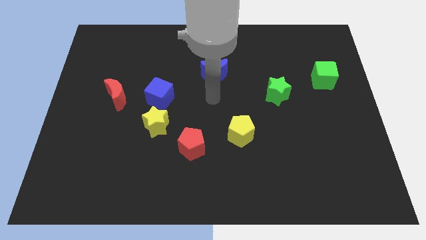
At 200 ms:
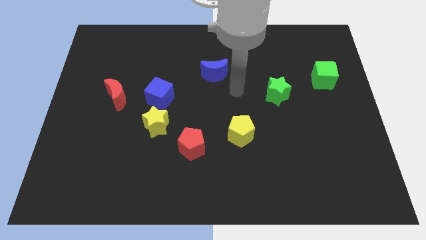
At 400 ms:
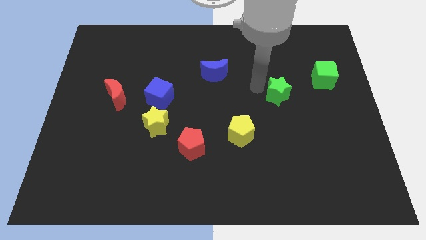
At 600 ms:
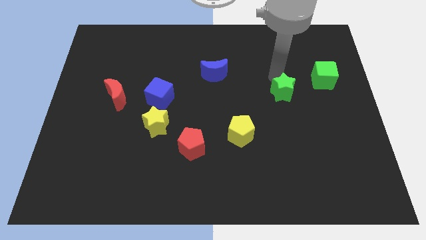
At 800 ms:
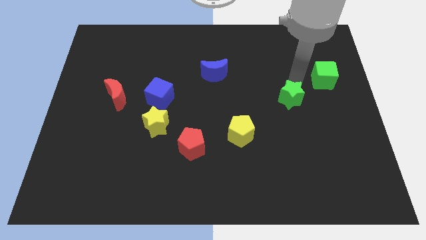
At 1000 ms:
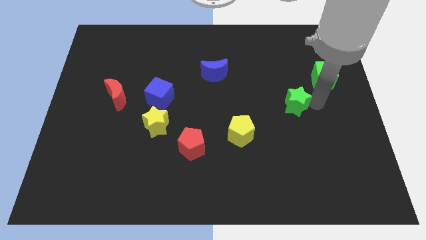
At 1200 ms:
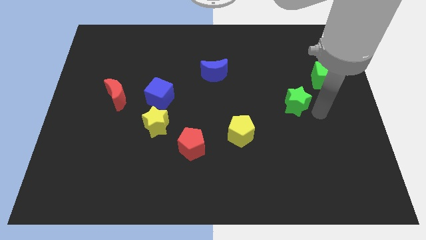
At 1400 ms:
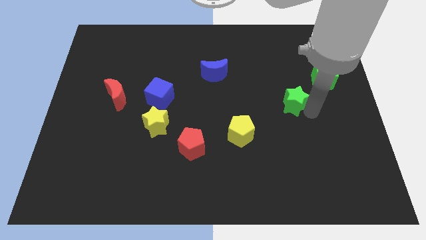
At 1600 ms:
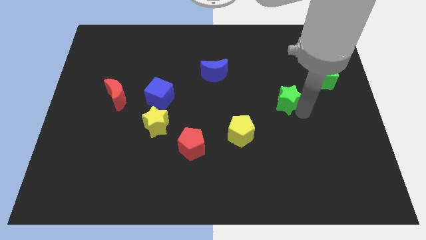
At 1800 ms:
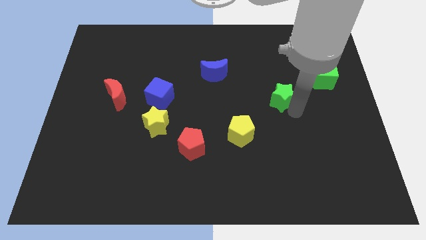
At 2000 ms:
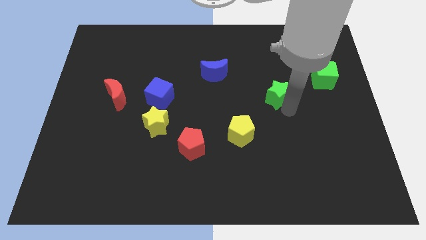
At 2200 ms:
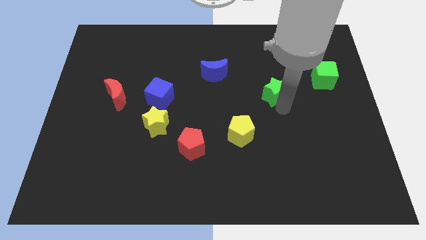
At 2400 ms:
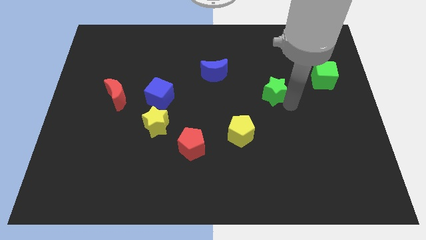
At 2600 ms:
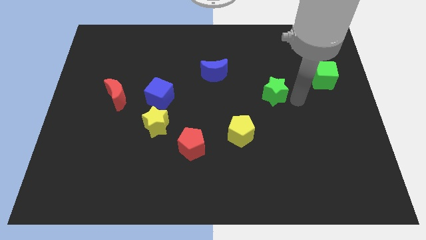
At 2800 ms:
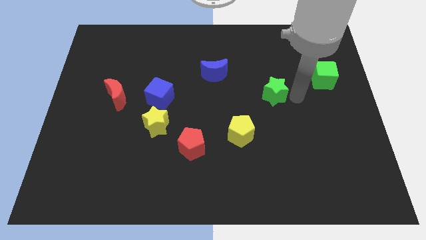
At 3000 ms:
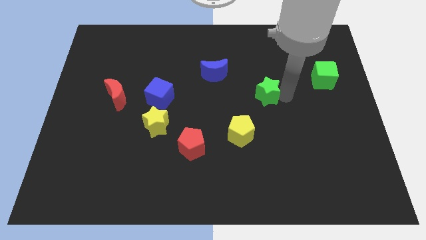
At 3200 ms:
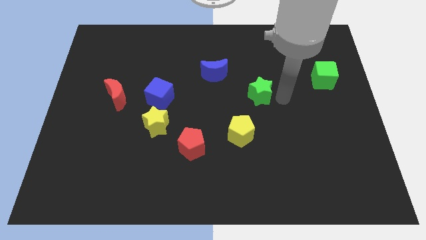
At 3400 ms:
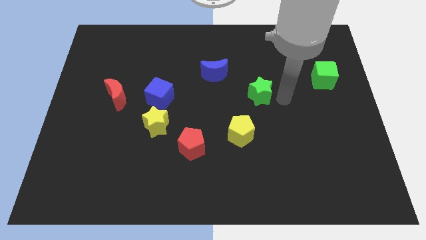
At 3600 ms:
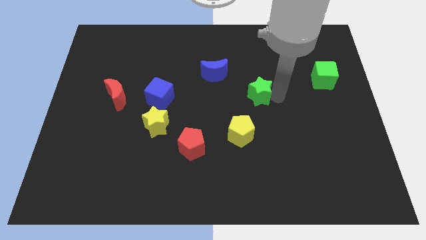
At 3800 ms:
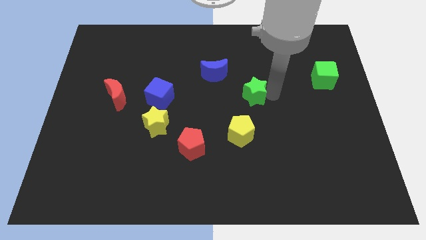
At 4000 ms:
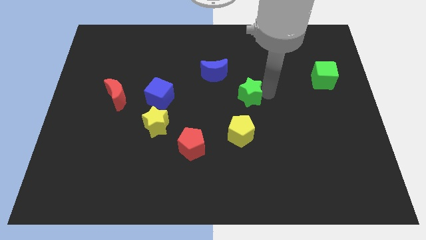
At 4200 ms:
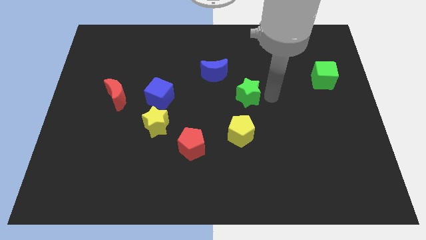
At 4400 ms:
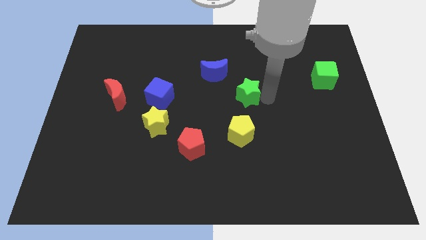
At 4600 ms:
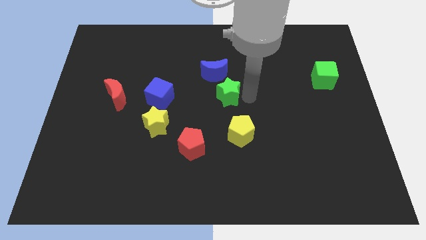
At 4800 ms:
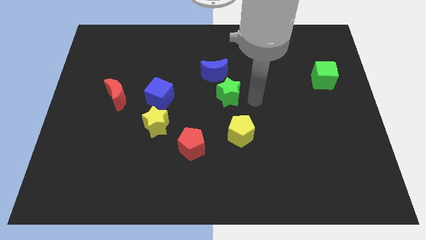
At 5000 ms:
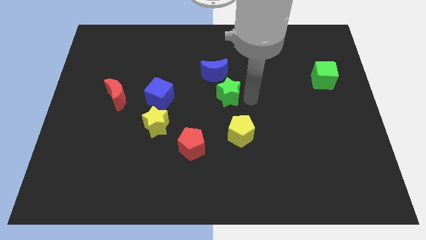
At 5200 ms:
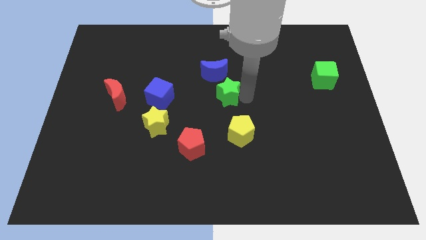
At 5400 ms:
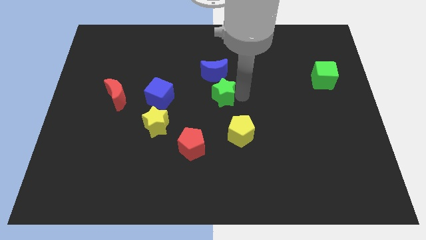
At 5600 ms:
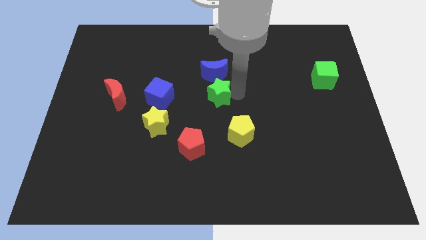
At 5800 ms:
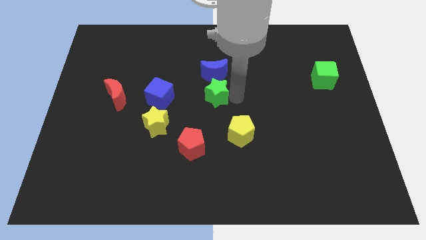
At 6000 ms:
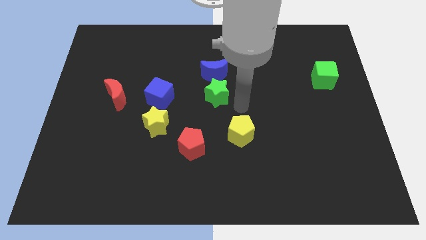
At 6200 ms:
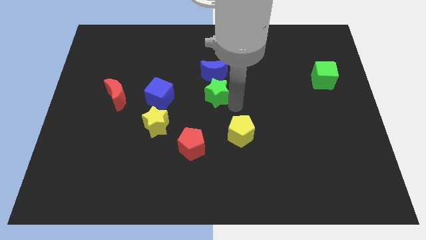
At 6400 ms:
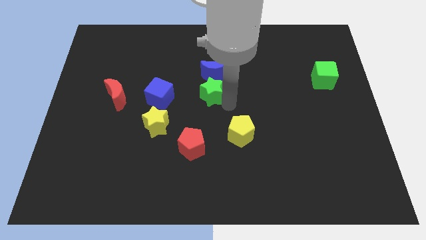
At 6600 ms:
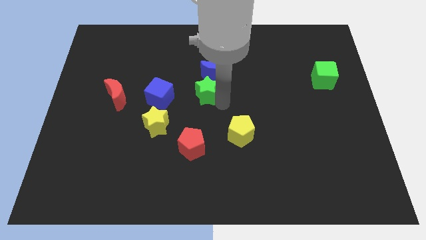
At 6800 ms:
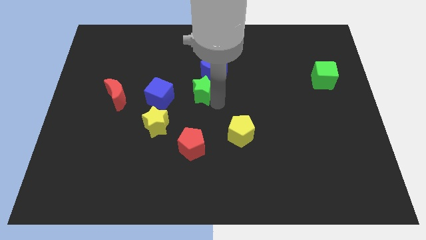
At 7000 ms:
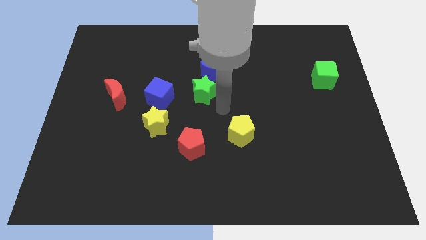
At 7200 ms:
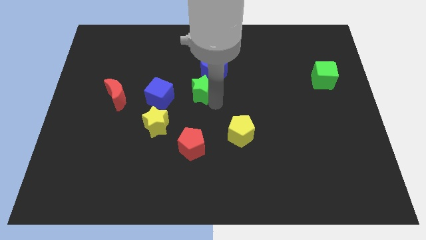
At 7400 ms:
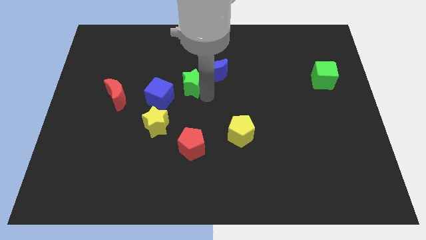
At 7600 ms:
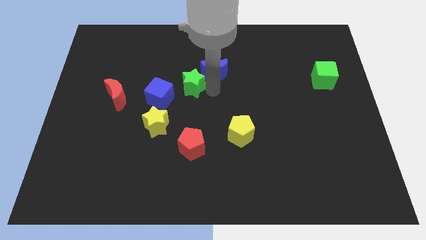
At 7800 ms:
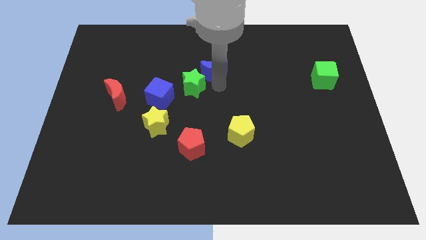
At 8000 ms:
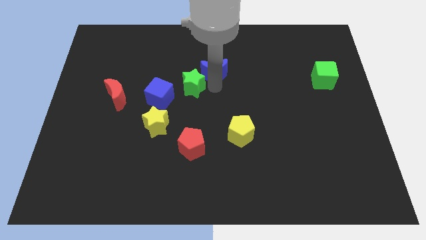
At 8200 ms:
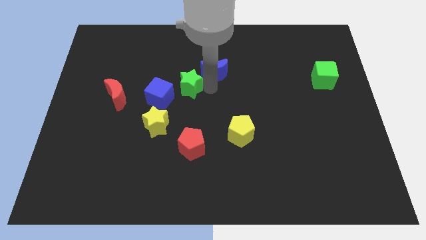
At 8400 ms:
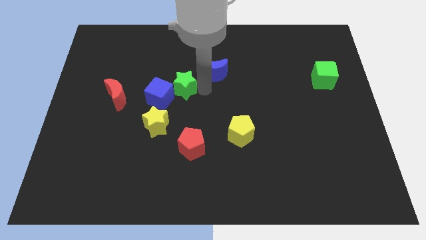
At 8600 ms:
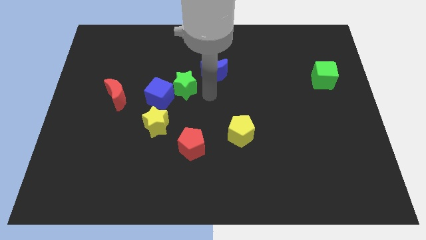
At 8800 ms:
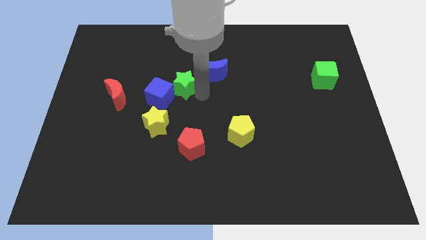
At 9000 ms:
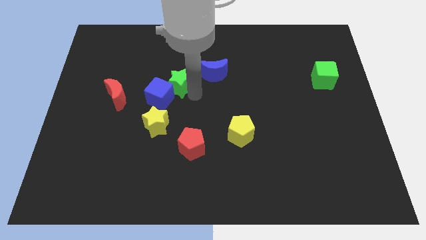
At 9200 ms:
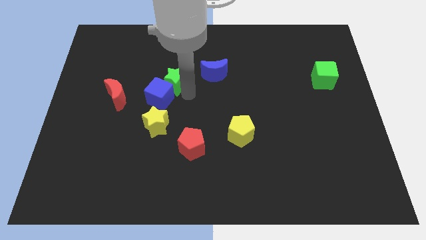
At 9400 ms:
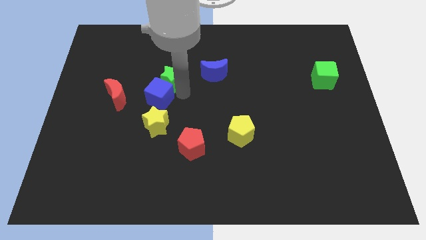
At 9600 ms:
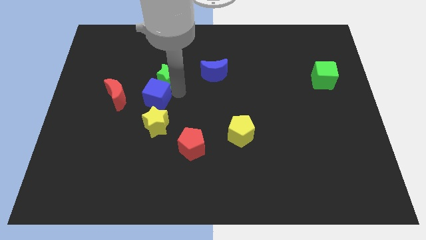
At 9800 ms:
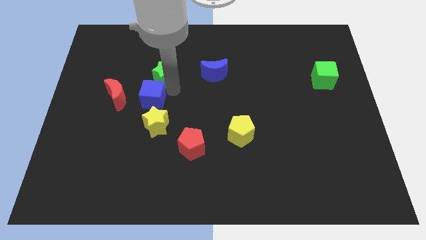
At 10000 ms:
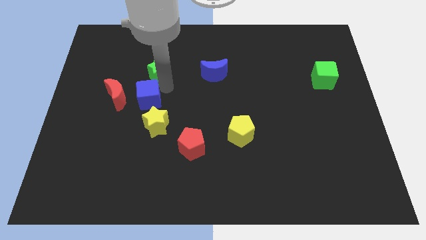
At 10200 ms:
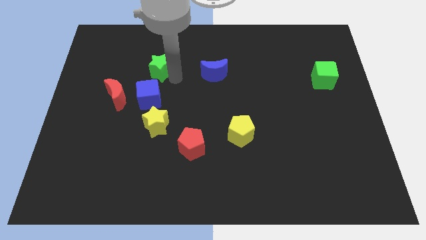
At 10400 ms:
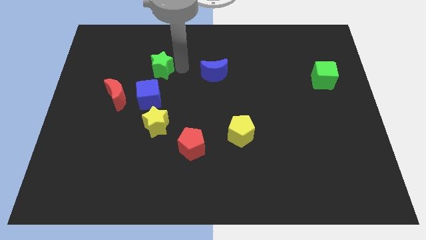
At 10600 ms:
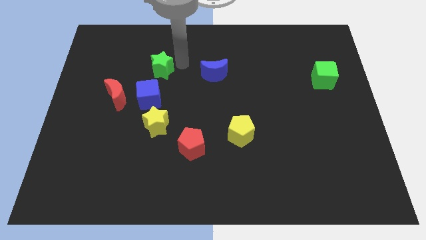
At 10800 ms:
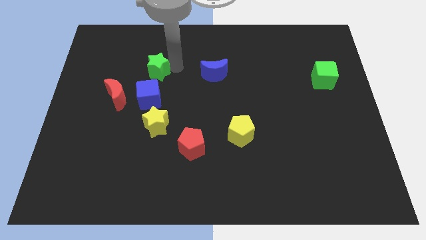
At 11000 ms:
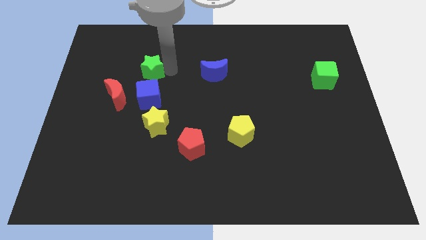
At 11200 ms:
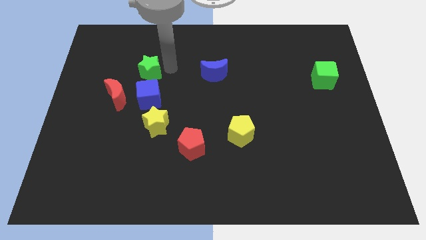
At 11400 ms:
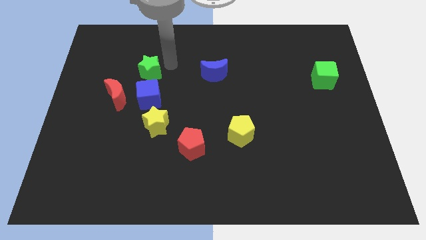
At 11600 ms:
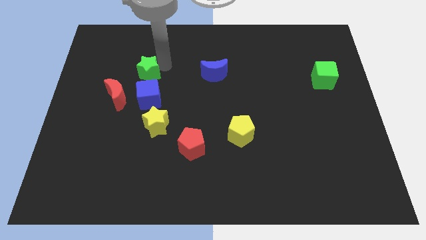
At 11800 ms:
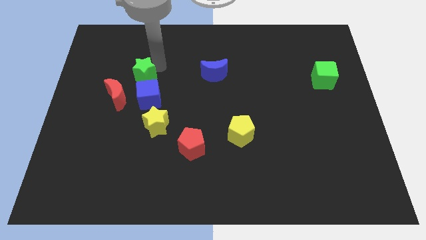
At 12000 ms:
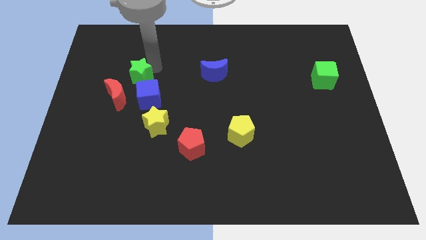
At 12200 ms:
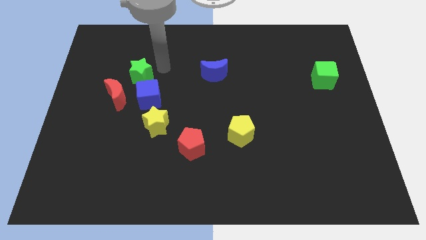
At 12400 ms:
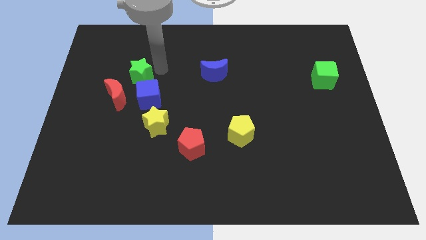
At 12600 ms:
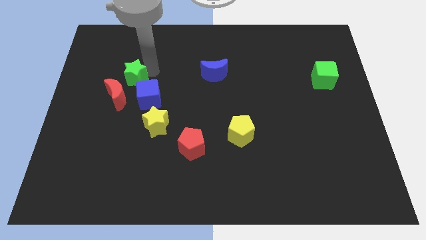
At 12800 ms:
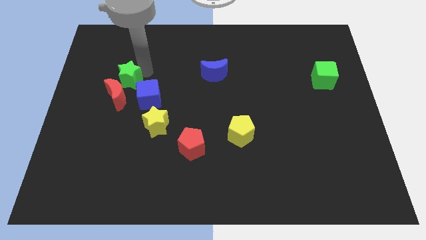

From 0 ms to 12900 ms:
move the green star next to the red moon
